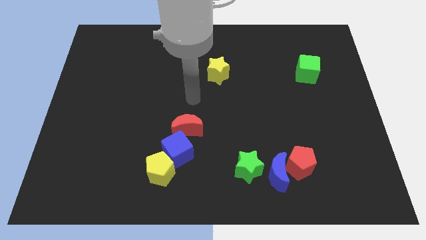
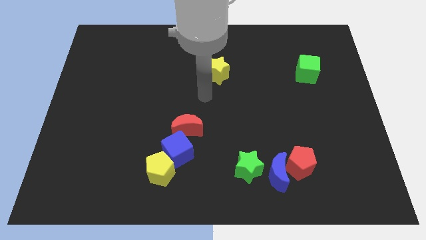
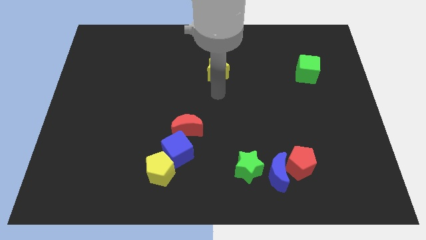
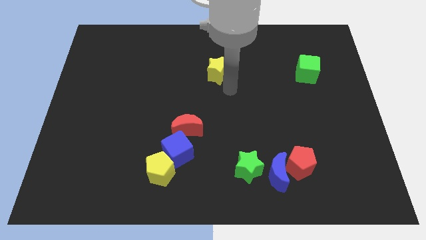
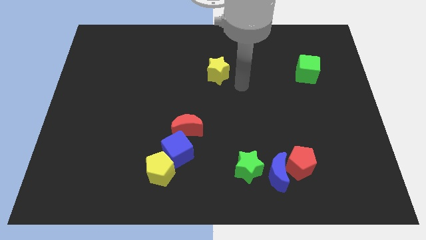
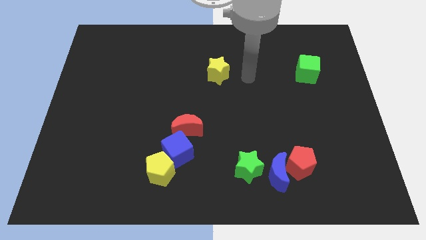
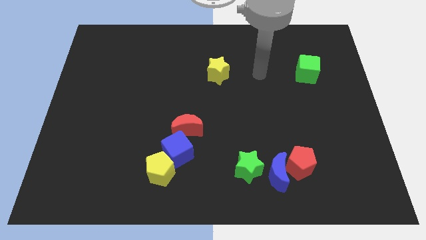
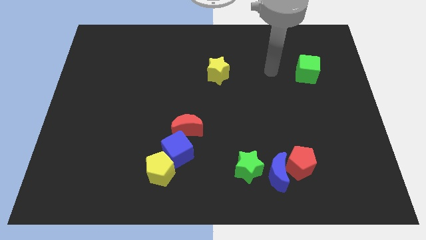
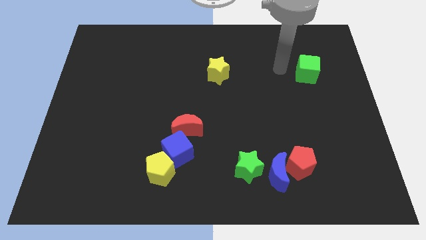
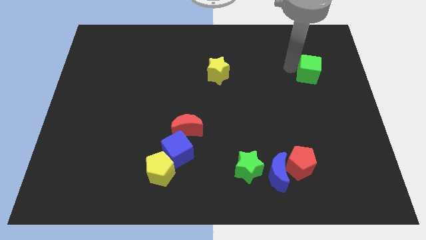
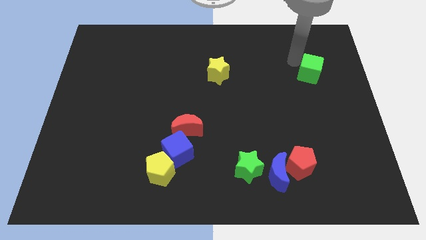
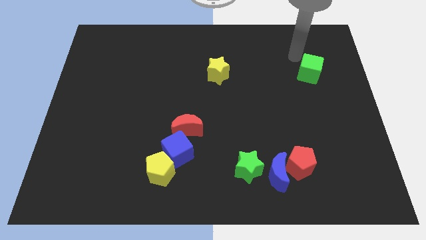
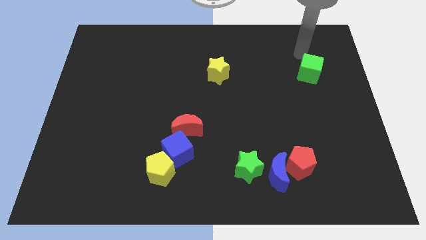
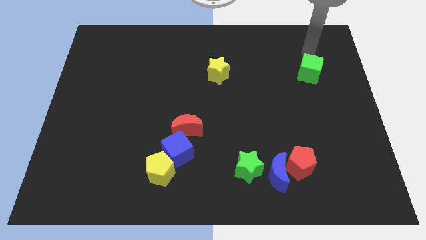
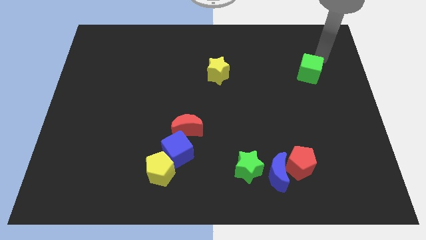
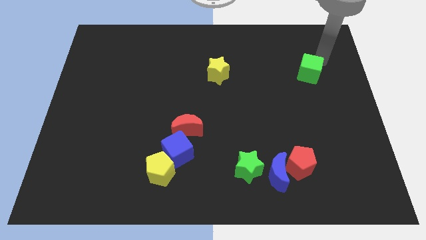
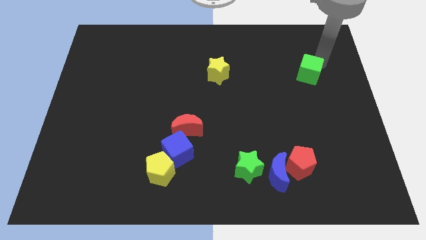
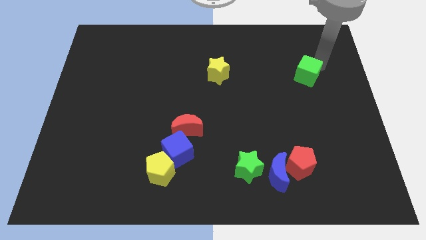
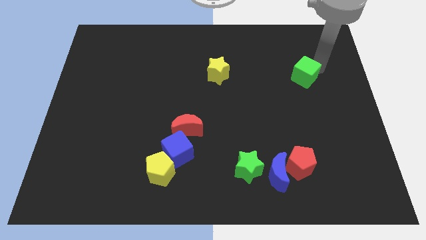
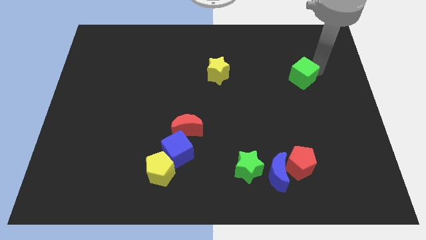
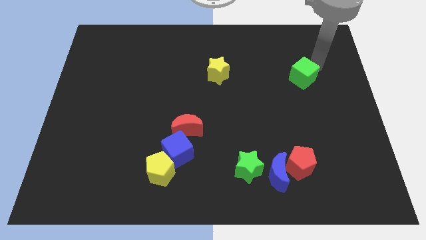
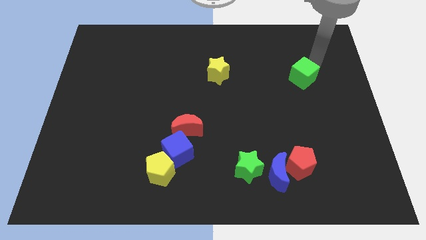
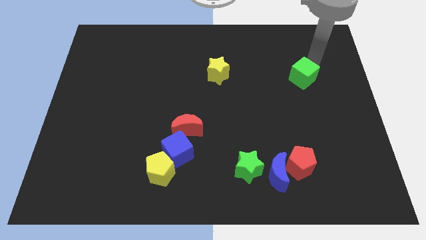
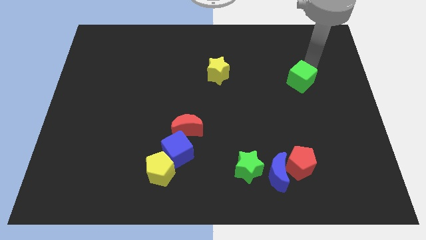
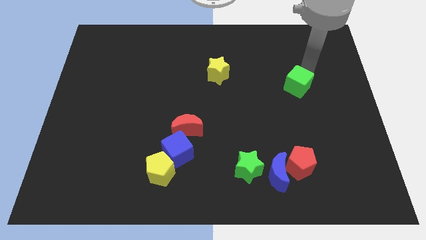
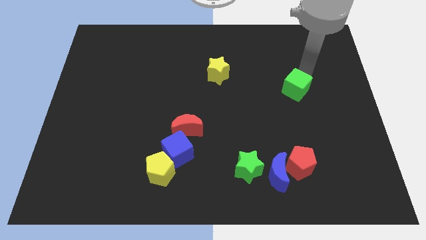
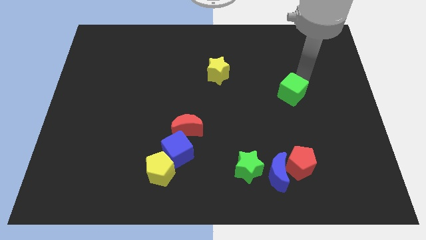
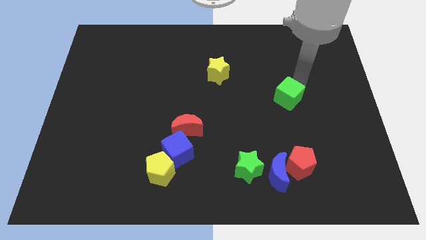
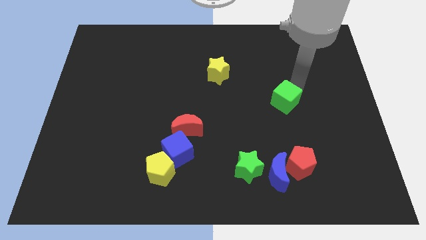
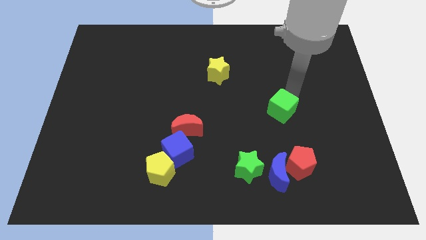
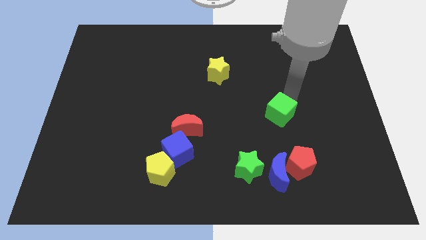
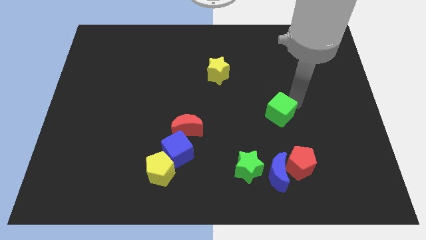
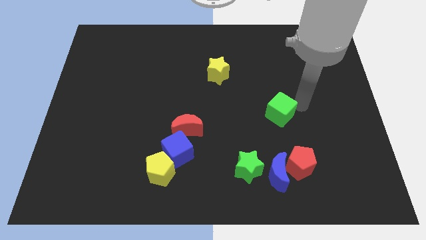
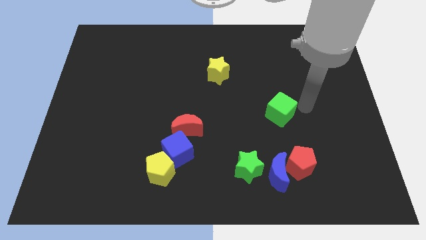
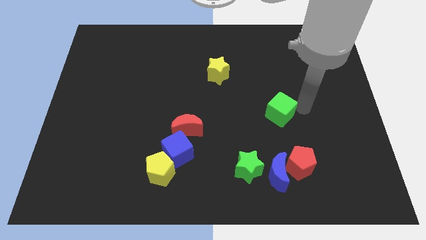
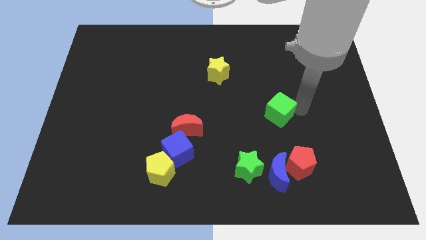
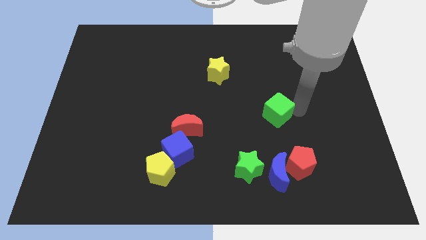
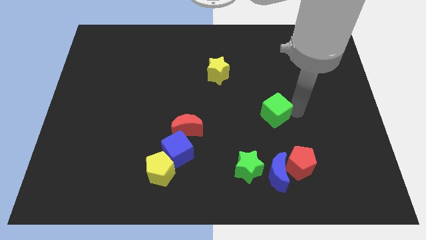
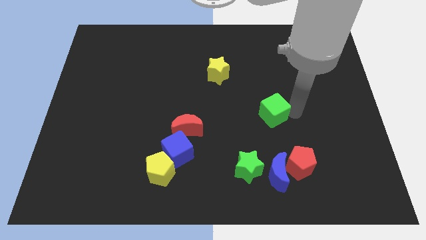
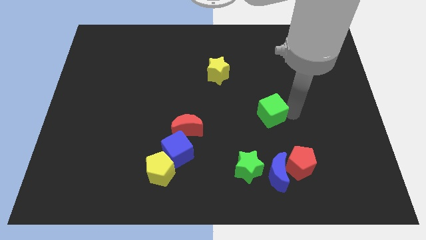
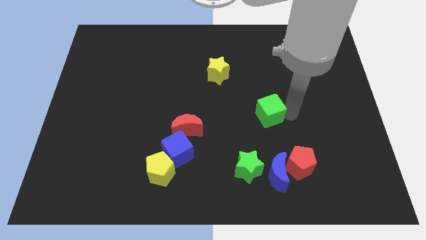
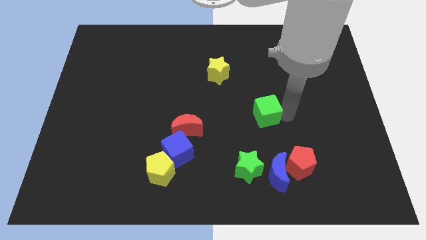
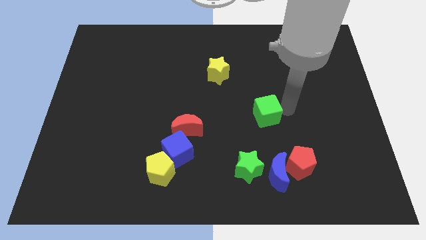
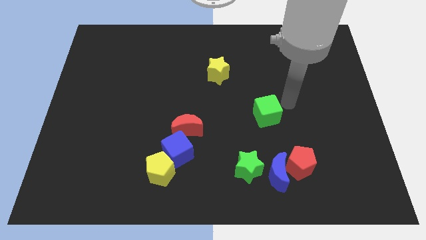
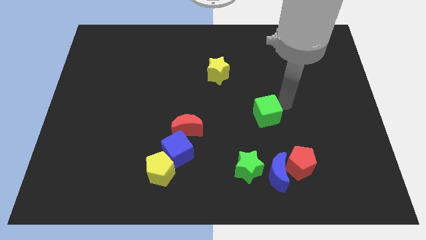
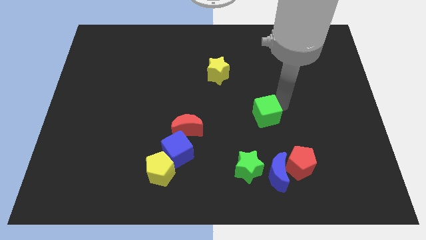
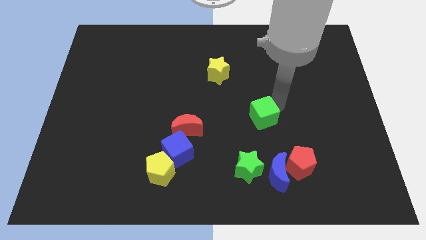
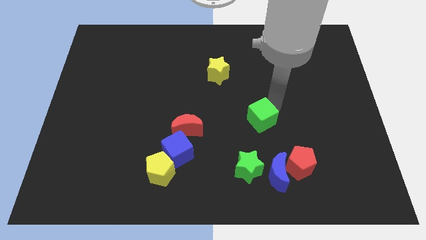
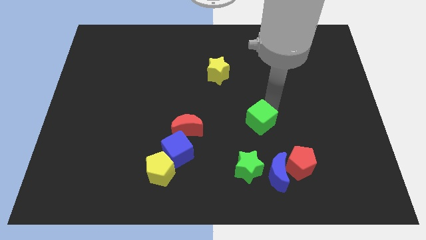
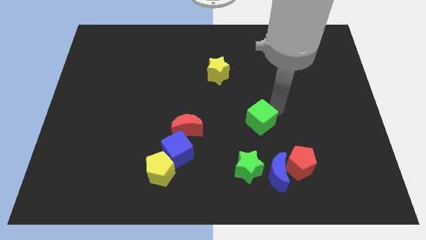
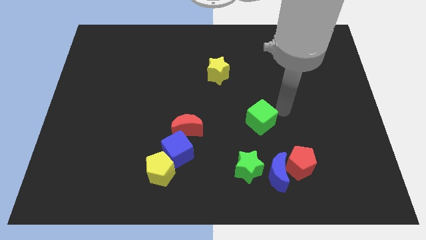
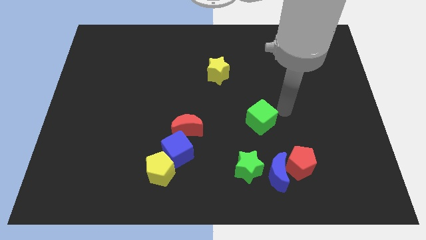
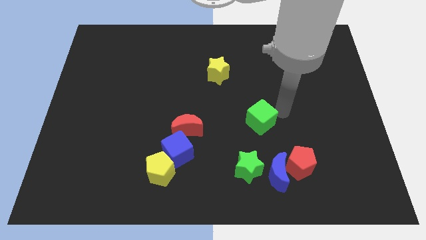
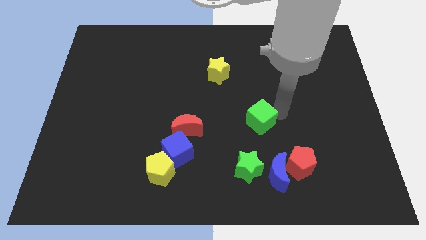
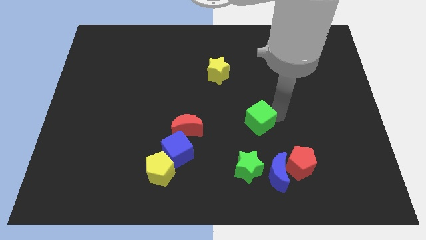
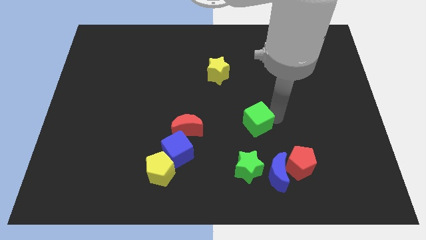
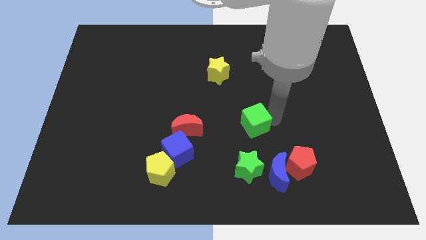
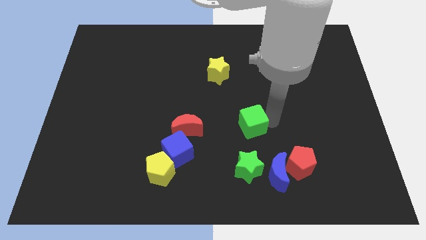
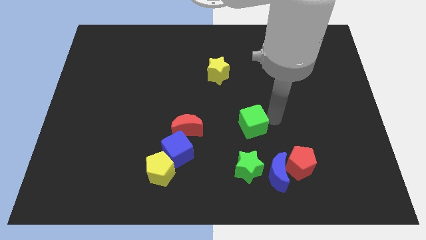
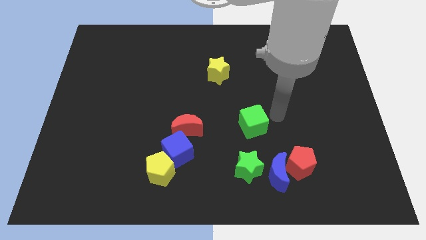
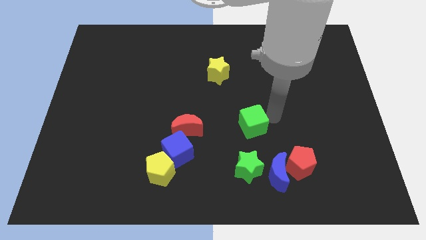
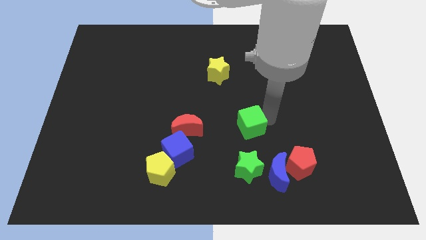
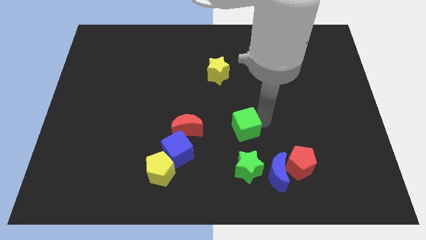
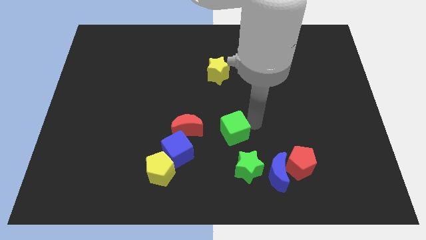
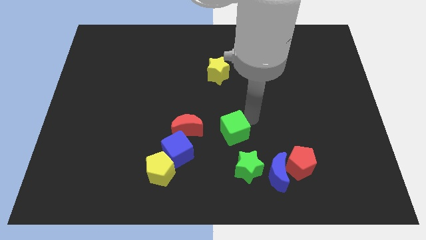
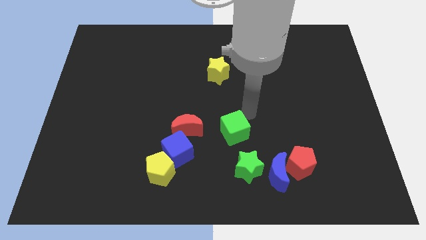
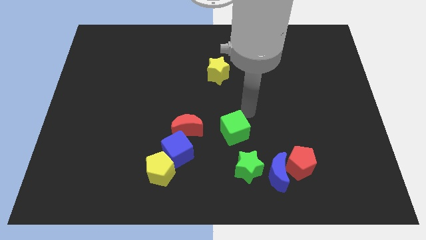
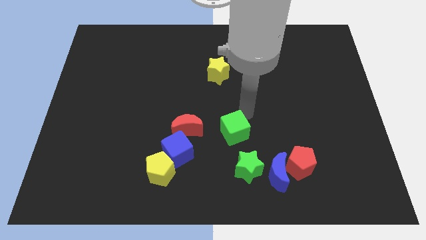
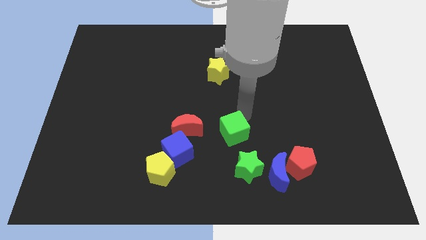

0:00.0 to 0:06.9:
push the green cube diagonally up and to the left of the green star
